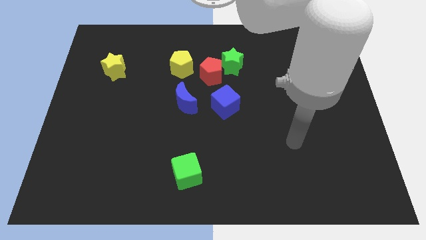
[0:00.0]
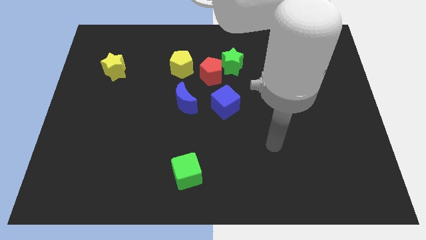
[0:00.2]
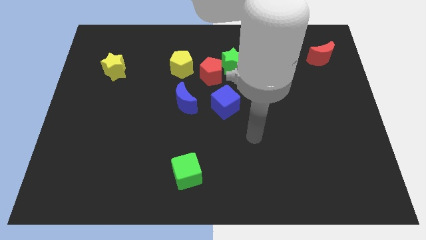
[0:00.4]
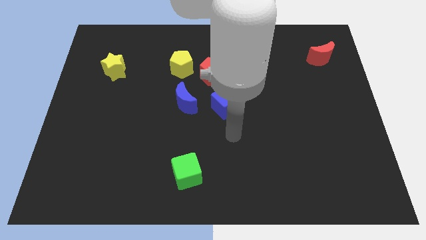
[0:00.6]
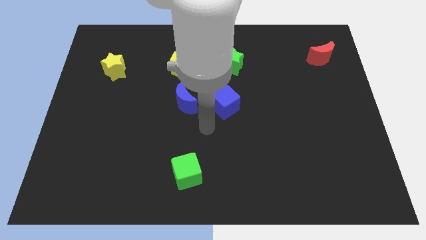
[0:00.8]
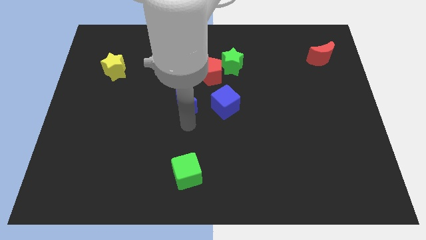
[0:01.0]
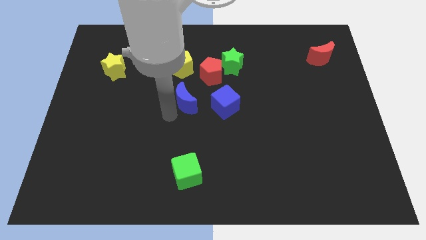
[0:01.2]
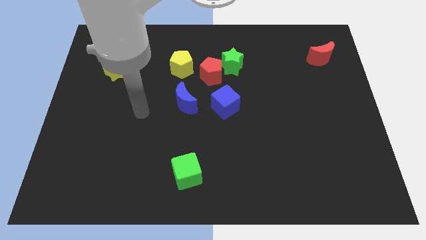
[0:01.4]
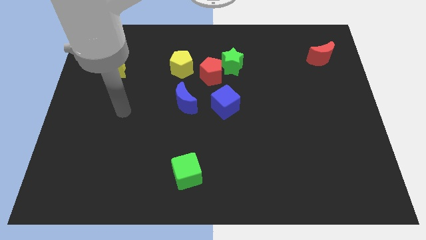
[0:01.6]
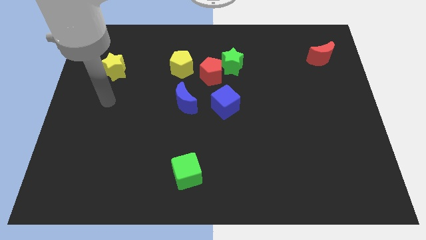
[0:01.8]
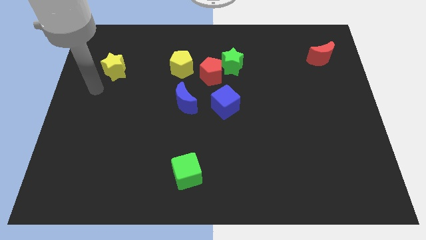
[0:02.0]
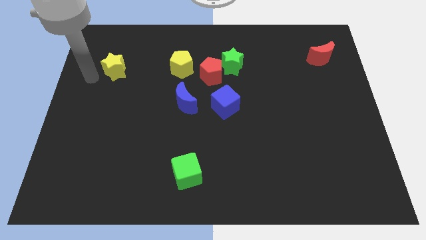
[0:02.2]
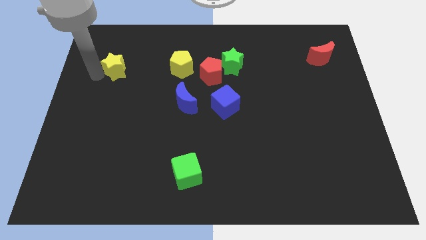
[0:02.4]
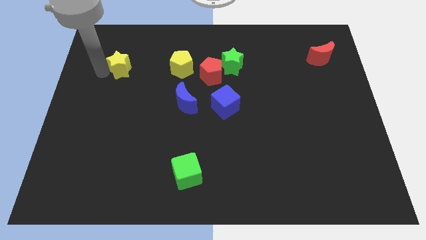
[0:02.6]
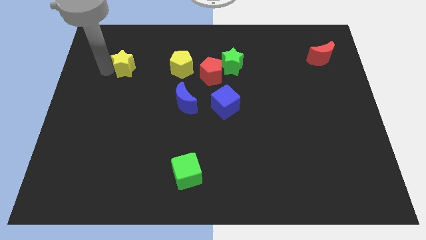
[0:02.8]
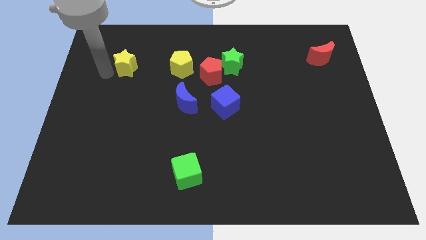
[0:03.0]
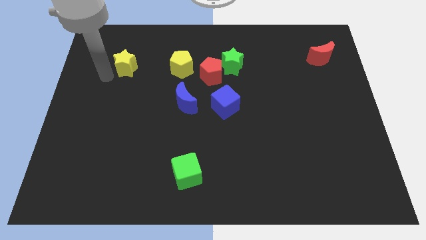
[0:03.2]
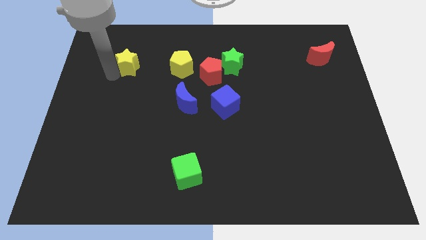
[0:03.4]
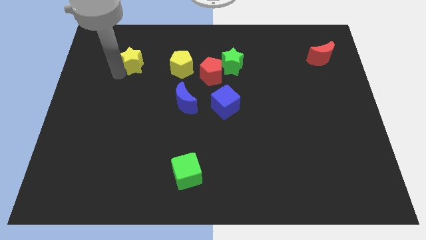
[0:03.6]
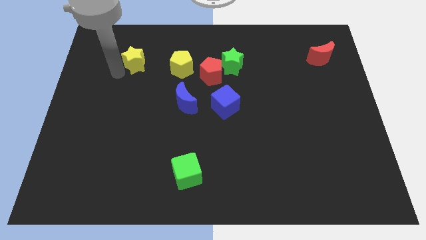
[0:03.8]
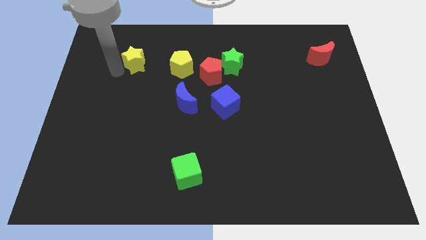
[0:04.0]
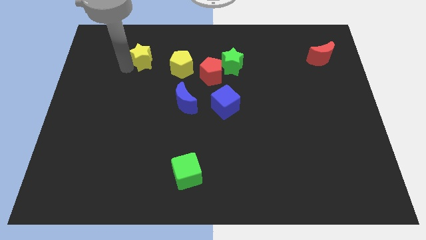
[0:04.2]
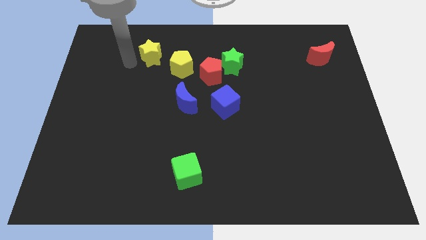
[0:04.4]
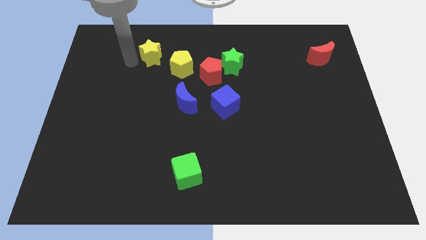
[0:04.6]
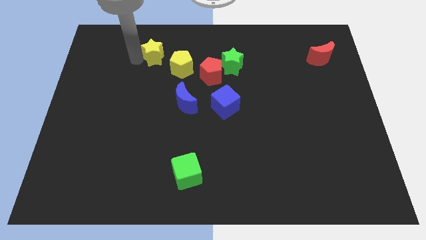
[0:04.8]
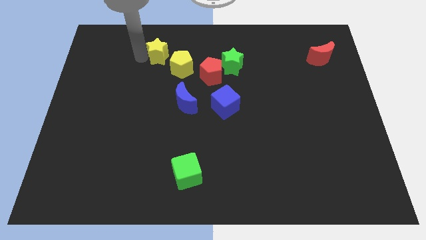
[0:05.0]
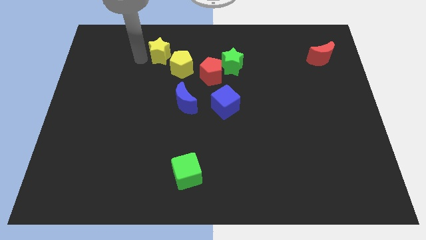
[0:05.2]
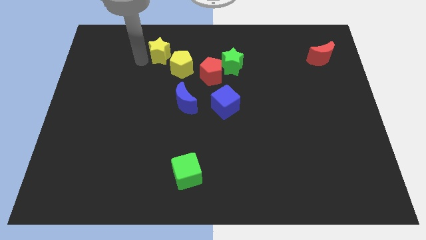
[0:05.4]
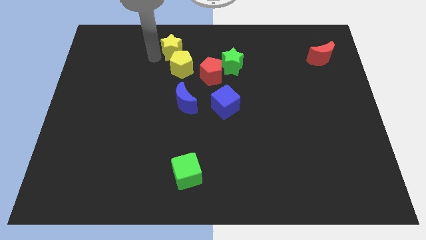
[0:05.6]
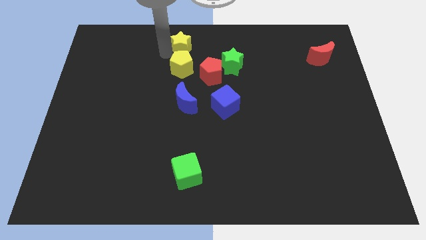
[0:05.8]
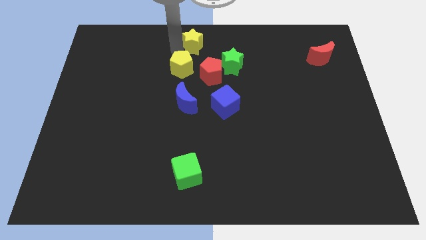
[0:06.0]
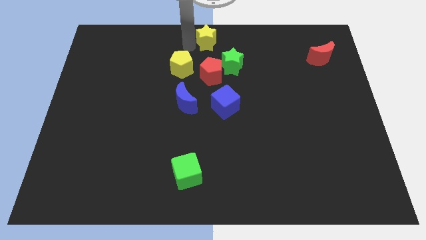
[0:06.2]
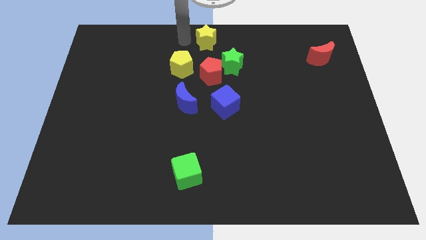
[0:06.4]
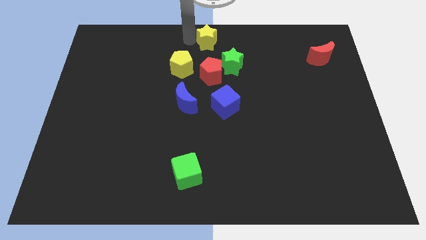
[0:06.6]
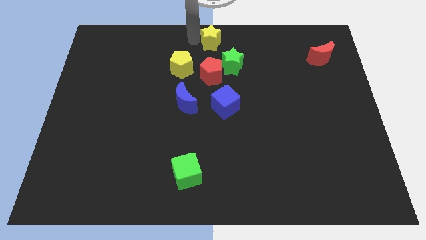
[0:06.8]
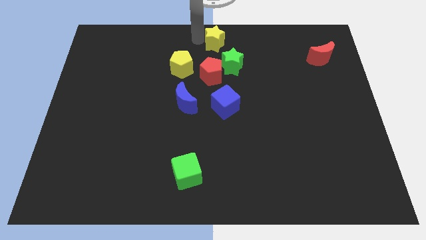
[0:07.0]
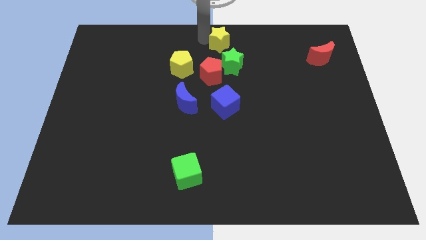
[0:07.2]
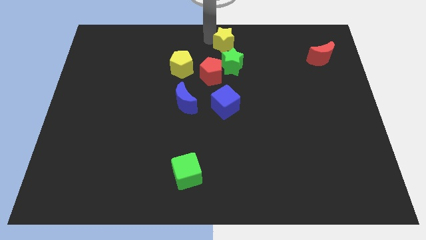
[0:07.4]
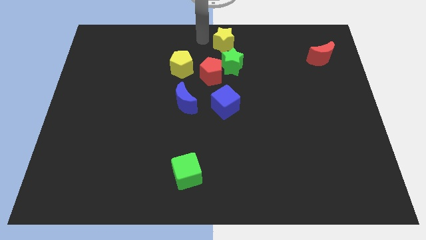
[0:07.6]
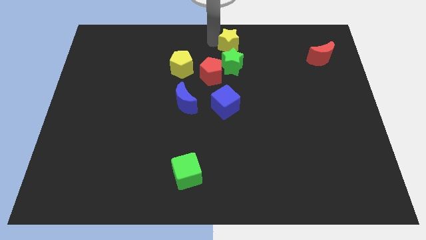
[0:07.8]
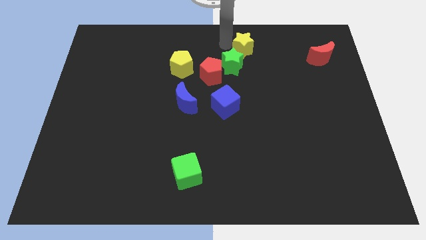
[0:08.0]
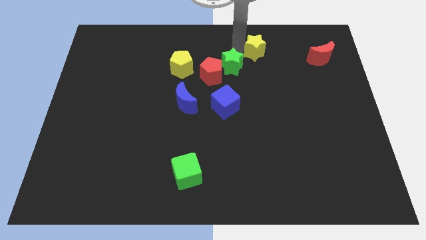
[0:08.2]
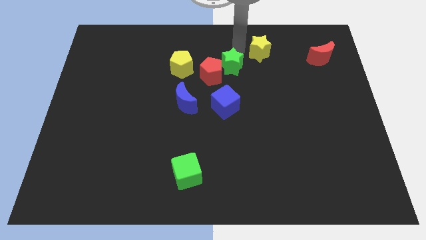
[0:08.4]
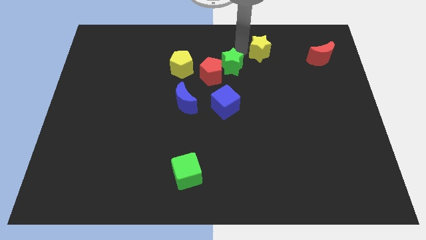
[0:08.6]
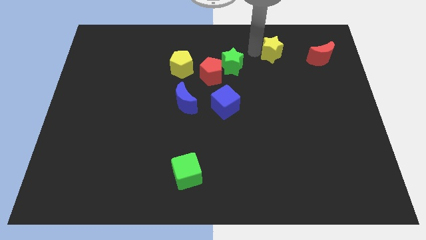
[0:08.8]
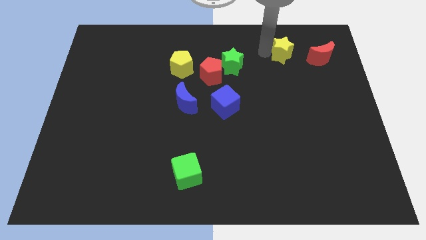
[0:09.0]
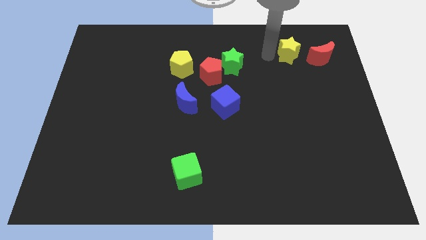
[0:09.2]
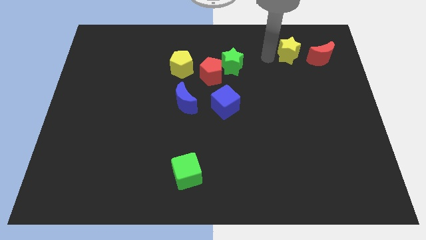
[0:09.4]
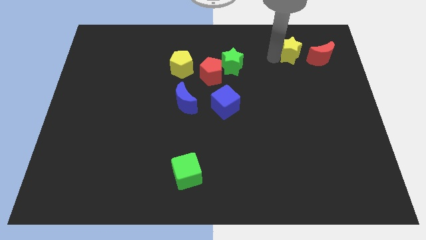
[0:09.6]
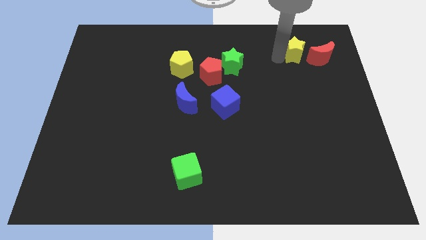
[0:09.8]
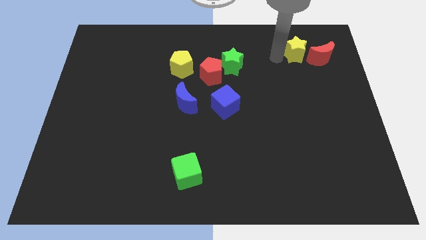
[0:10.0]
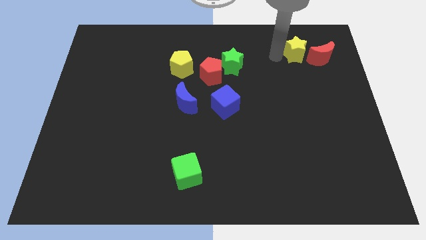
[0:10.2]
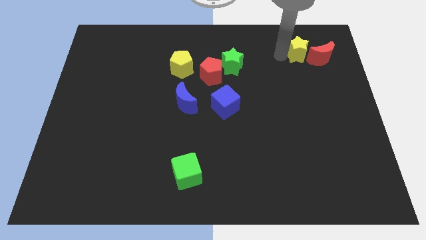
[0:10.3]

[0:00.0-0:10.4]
move the yellow star next to the red moon

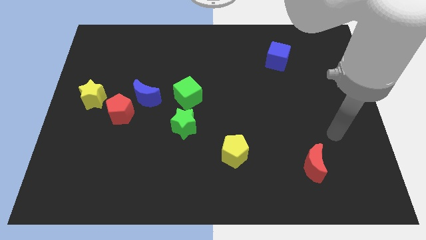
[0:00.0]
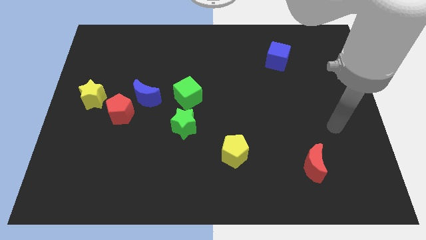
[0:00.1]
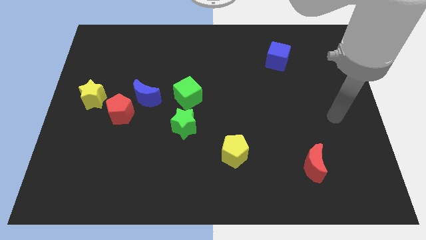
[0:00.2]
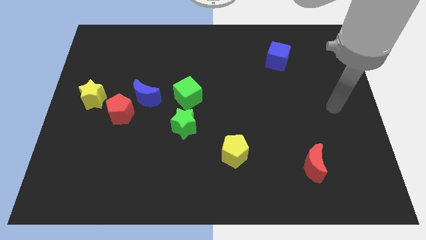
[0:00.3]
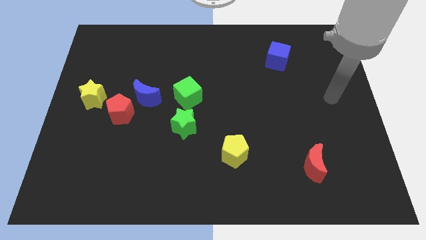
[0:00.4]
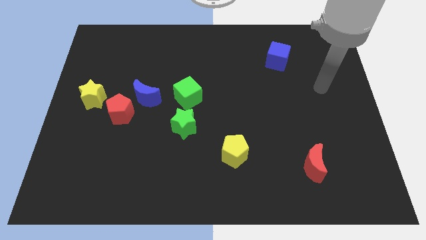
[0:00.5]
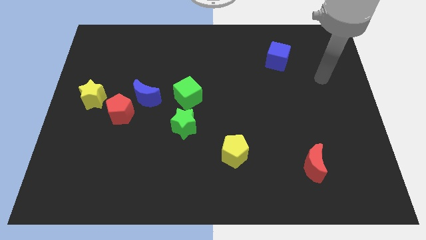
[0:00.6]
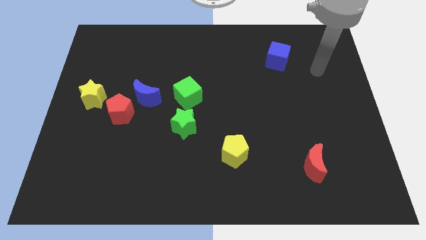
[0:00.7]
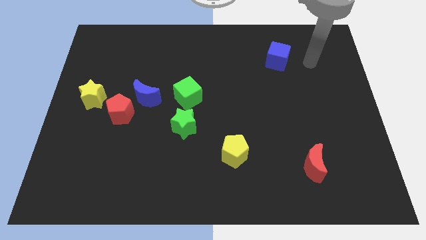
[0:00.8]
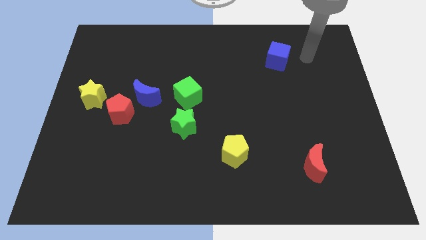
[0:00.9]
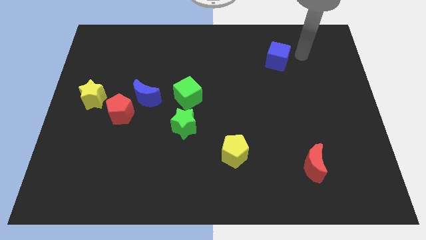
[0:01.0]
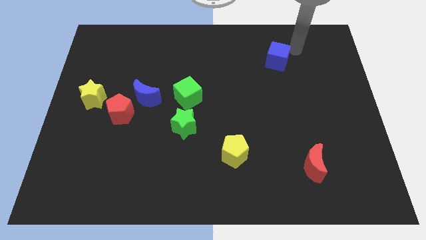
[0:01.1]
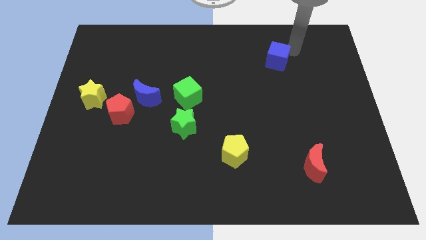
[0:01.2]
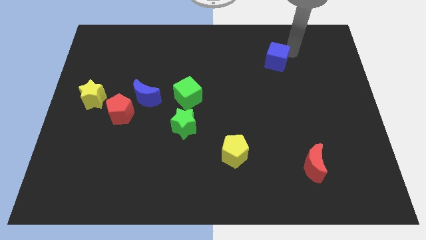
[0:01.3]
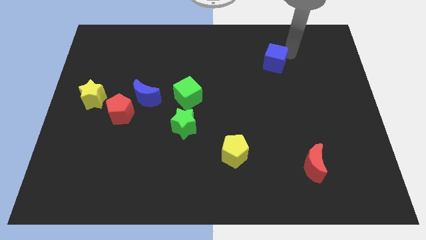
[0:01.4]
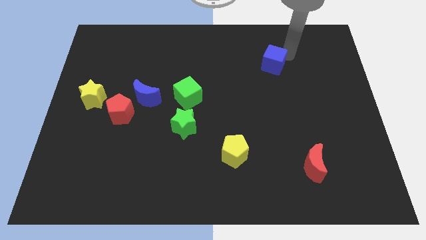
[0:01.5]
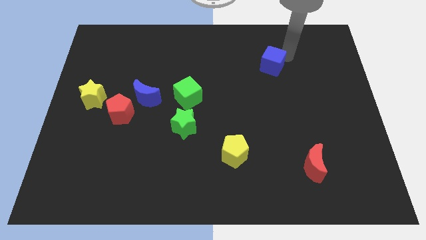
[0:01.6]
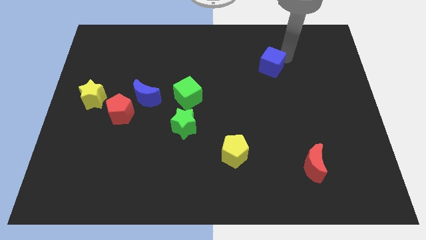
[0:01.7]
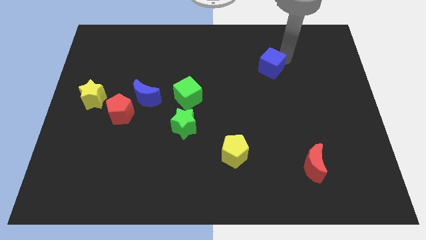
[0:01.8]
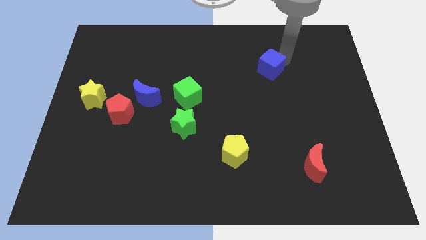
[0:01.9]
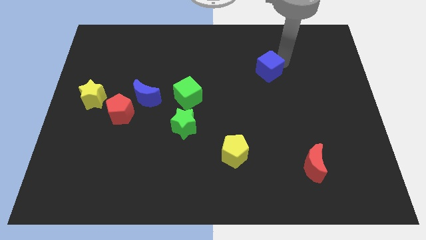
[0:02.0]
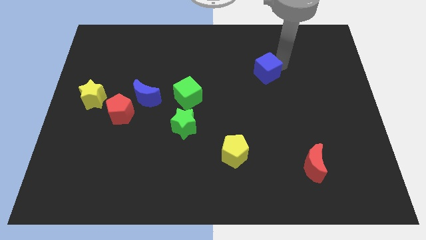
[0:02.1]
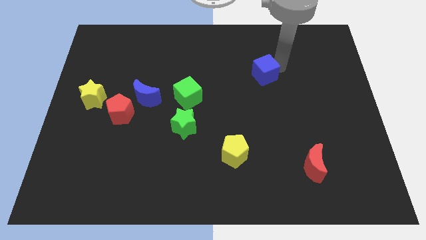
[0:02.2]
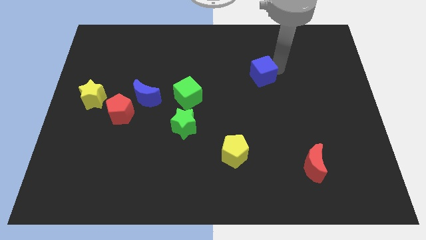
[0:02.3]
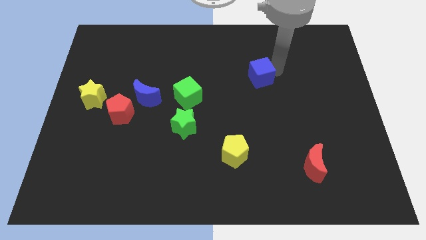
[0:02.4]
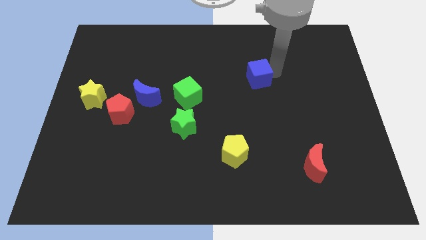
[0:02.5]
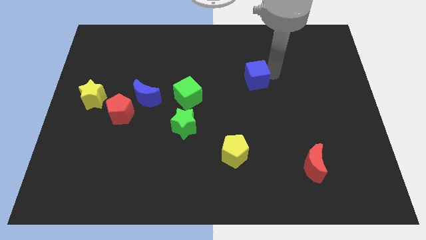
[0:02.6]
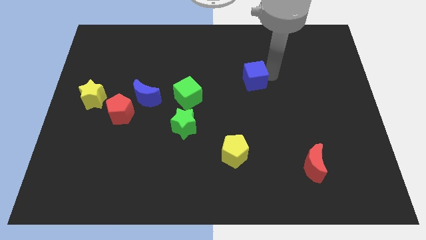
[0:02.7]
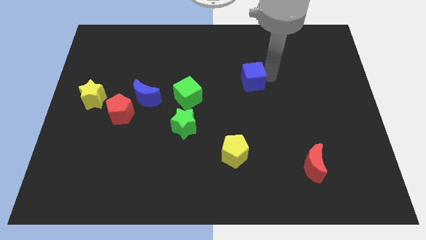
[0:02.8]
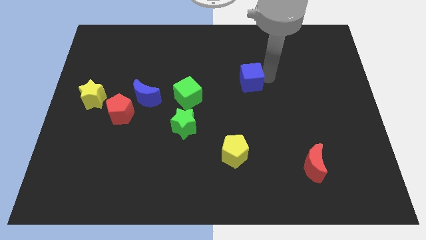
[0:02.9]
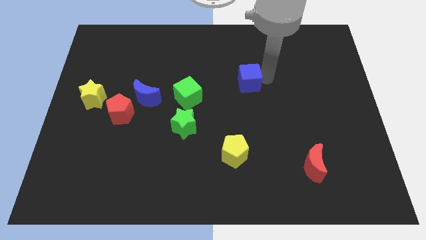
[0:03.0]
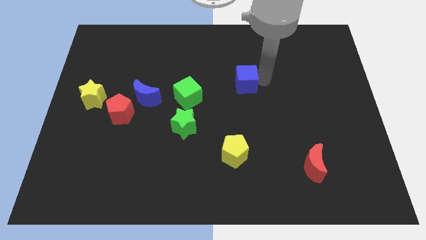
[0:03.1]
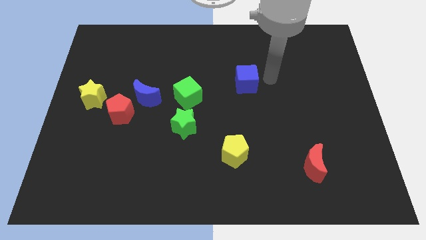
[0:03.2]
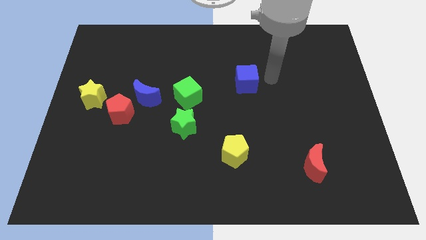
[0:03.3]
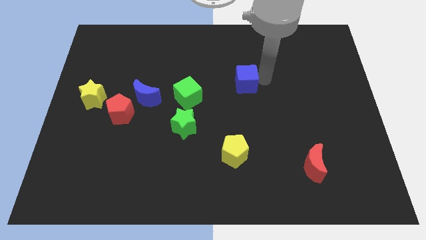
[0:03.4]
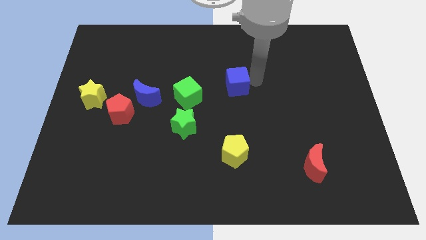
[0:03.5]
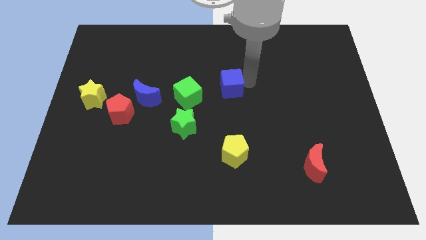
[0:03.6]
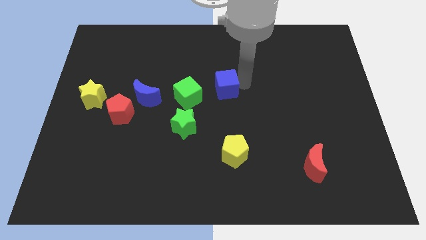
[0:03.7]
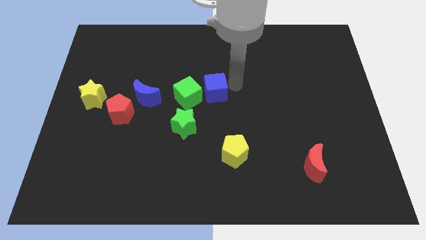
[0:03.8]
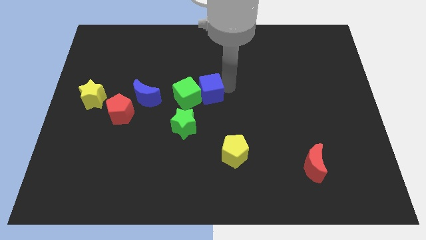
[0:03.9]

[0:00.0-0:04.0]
move the blue cube next to the green cube
